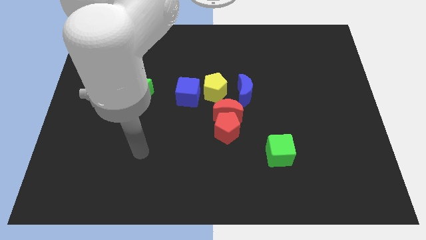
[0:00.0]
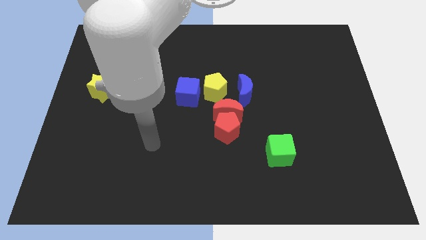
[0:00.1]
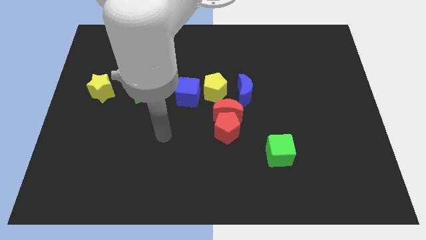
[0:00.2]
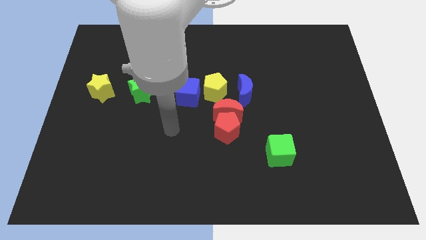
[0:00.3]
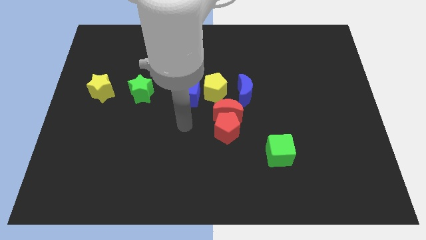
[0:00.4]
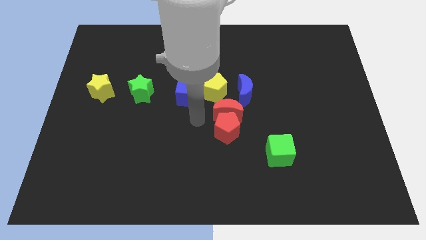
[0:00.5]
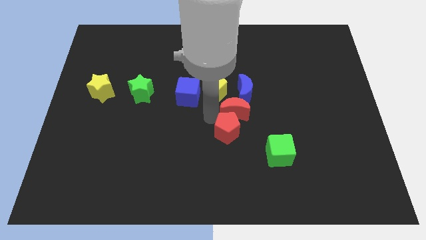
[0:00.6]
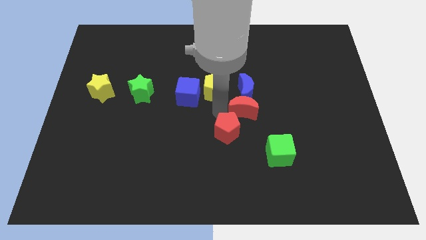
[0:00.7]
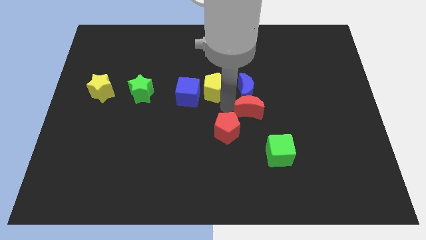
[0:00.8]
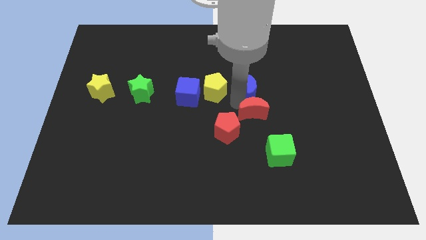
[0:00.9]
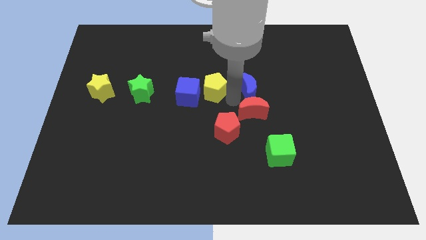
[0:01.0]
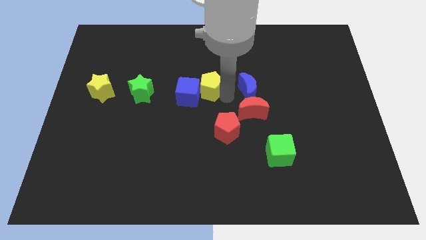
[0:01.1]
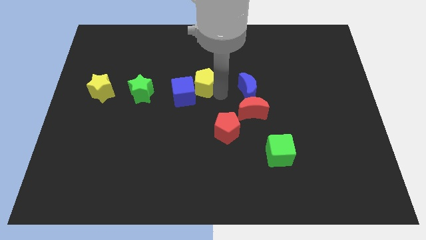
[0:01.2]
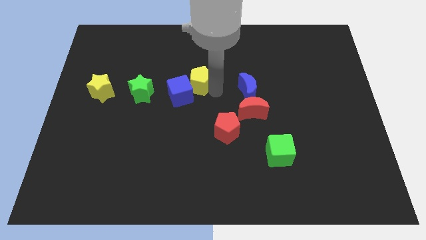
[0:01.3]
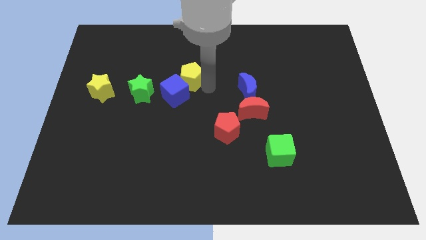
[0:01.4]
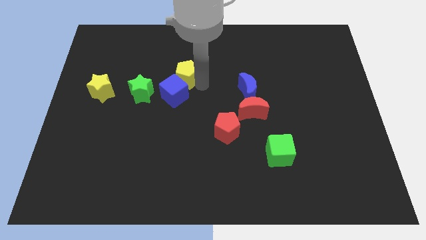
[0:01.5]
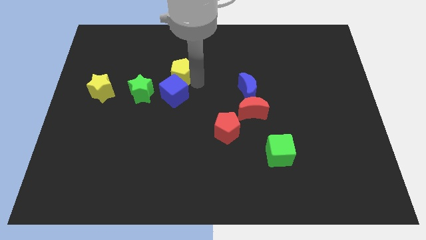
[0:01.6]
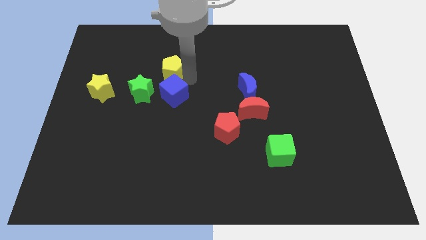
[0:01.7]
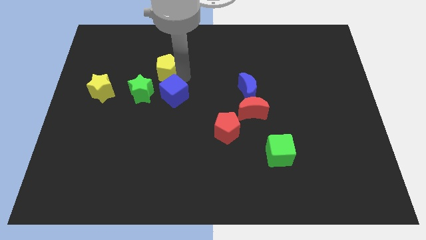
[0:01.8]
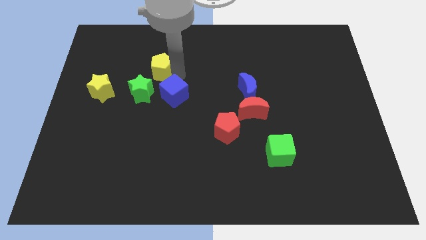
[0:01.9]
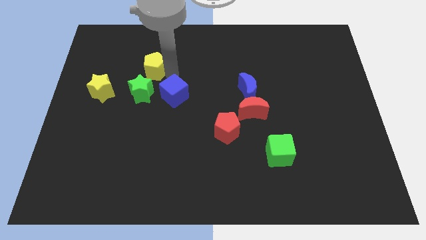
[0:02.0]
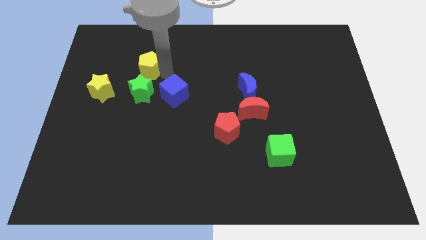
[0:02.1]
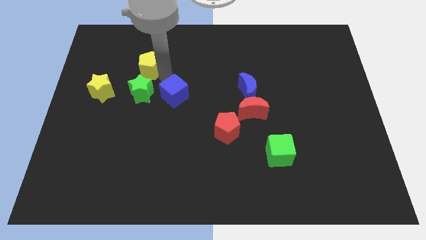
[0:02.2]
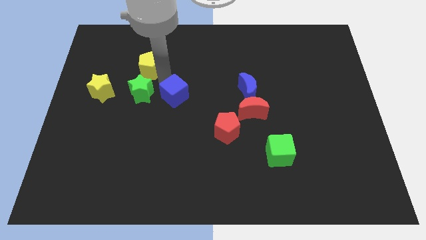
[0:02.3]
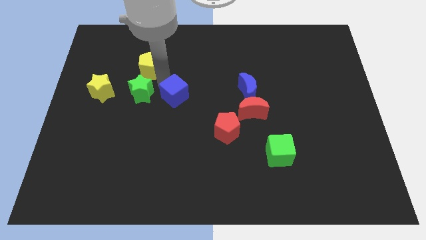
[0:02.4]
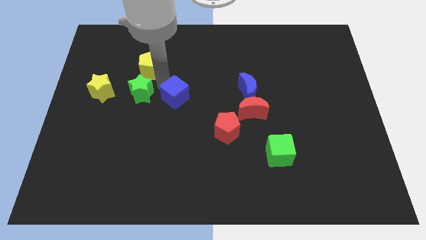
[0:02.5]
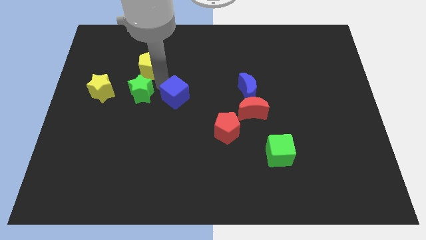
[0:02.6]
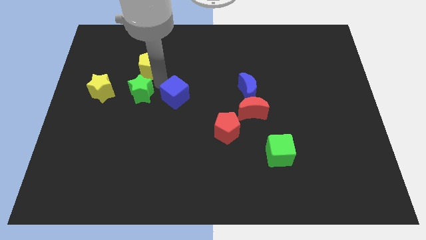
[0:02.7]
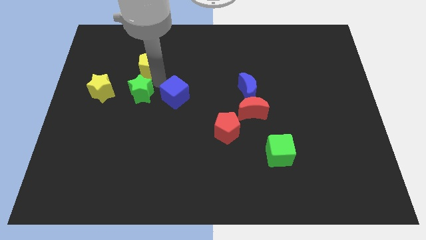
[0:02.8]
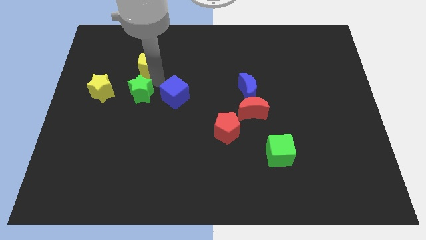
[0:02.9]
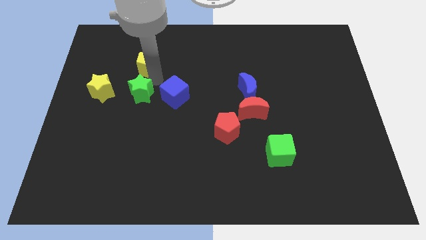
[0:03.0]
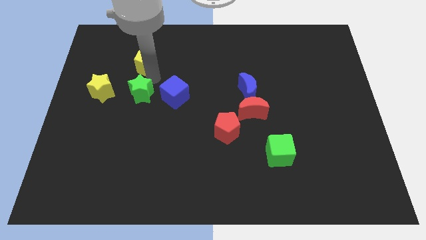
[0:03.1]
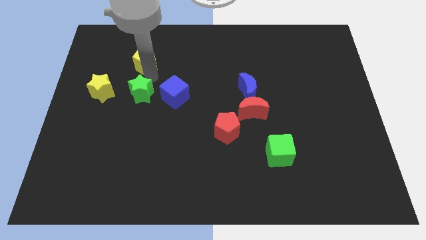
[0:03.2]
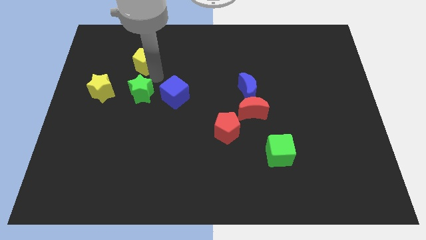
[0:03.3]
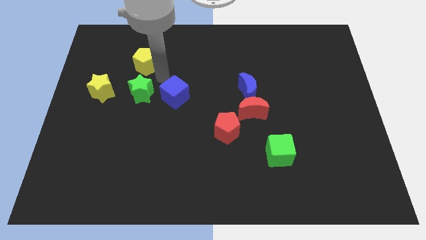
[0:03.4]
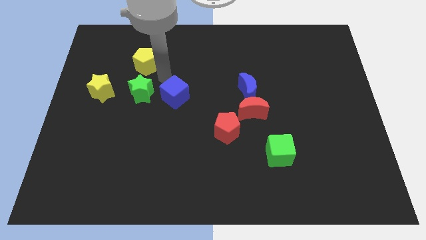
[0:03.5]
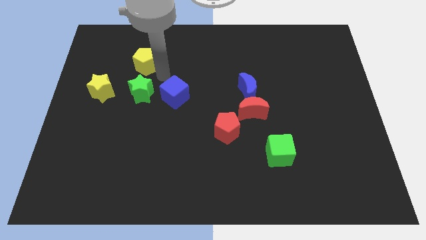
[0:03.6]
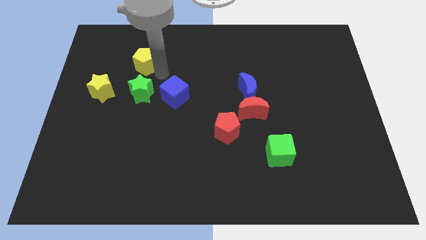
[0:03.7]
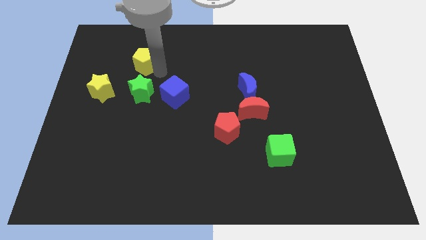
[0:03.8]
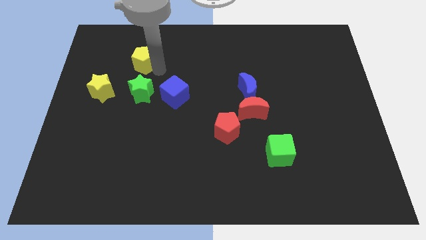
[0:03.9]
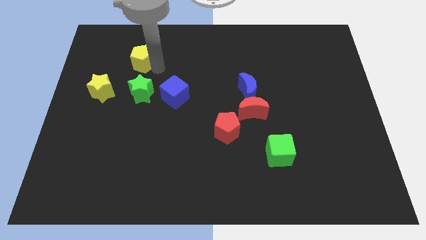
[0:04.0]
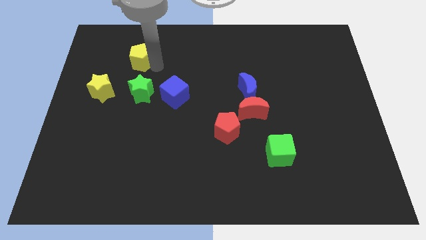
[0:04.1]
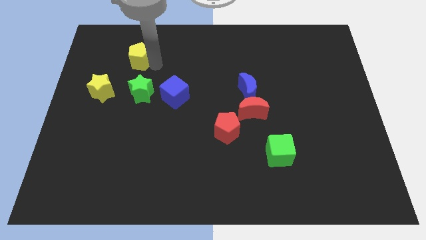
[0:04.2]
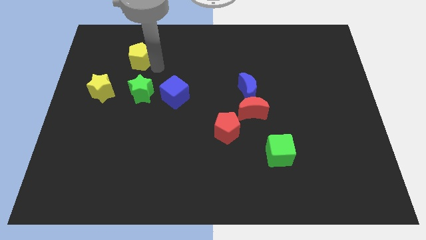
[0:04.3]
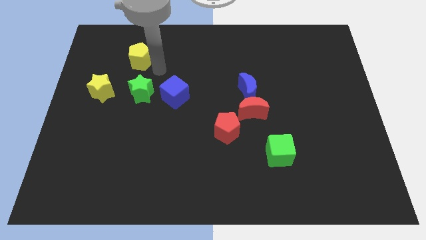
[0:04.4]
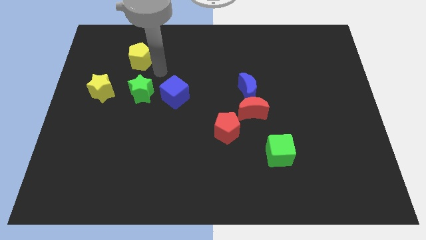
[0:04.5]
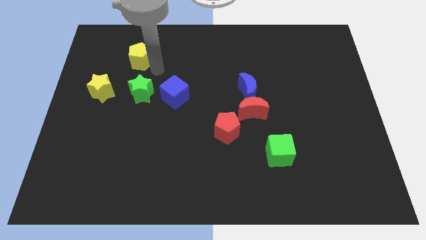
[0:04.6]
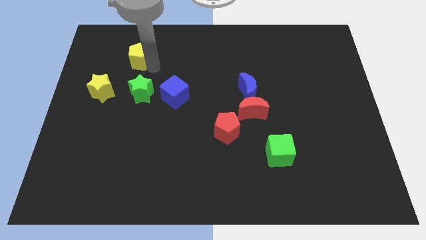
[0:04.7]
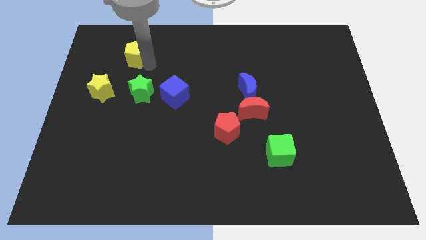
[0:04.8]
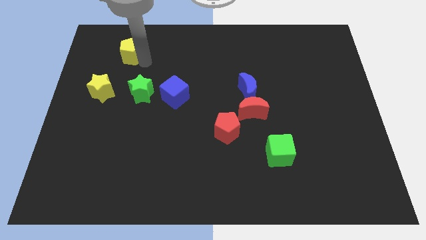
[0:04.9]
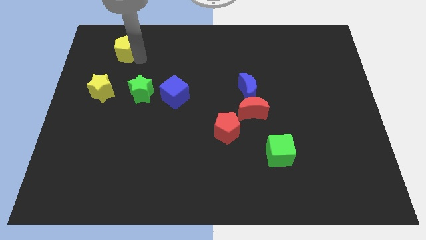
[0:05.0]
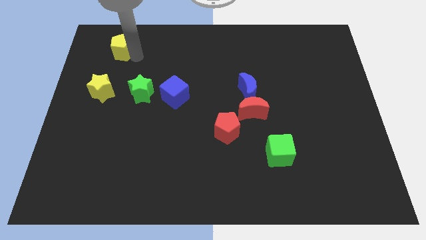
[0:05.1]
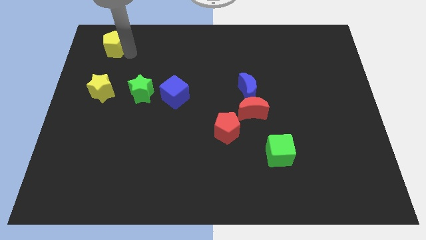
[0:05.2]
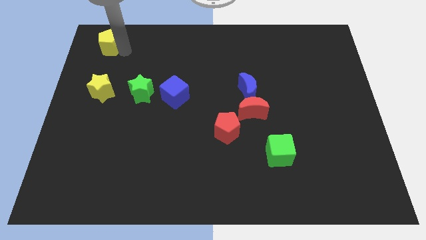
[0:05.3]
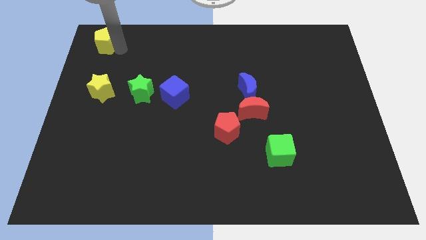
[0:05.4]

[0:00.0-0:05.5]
push the yellow pentagon to the top left corner

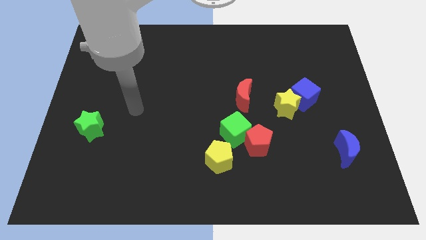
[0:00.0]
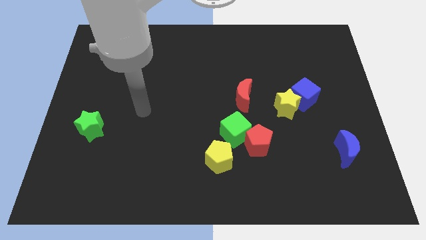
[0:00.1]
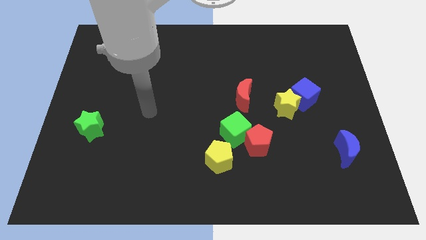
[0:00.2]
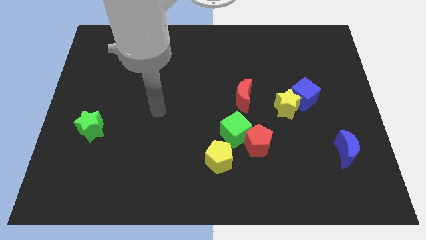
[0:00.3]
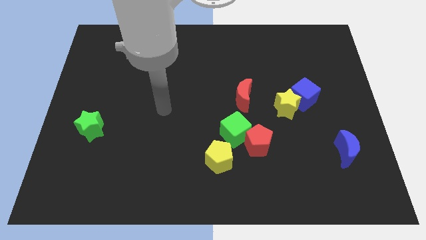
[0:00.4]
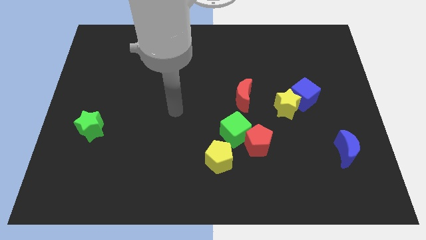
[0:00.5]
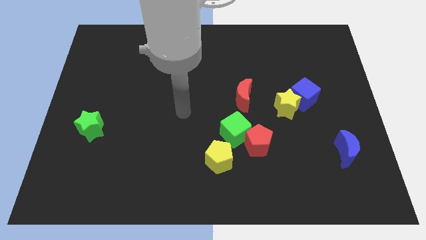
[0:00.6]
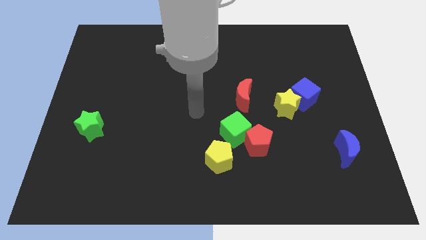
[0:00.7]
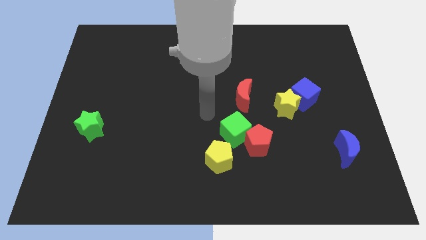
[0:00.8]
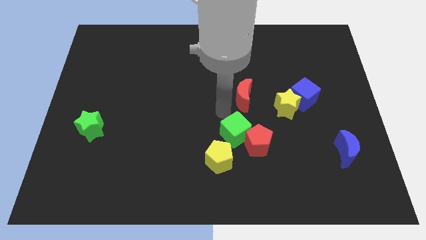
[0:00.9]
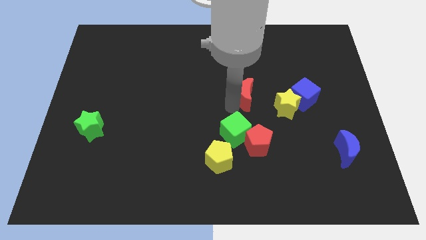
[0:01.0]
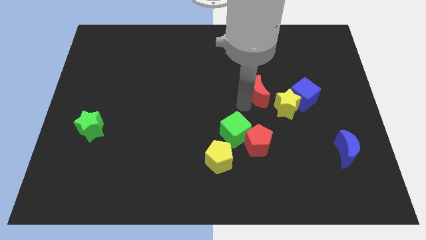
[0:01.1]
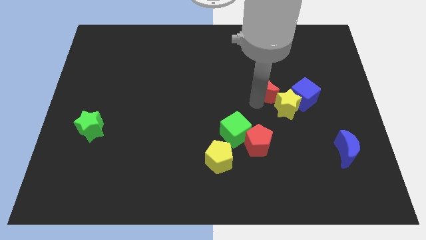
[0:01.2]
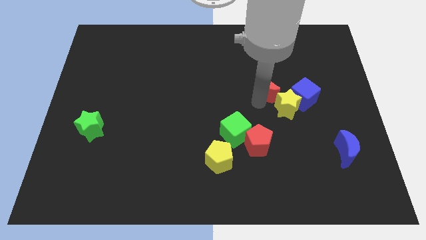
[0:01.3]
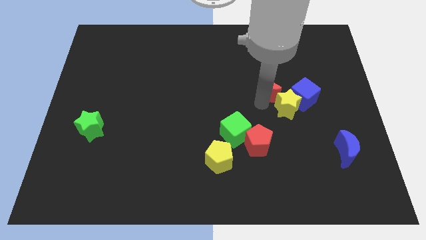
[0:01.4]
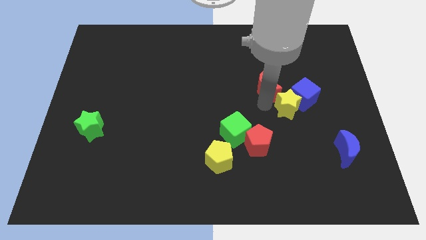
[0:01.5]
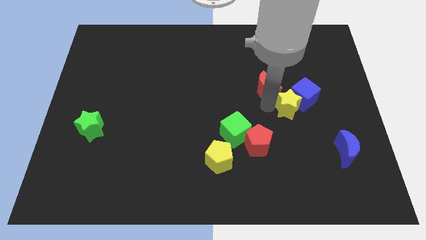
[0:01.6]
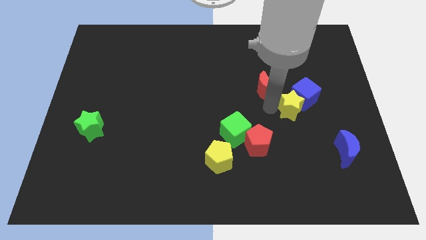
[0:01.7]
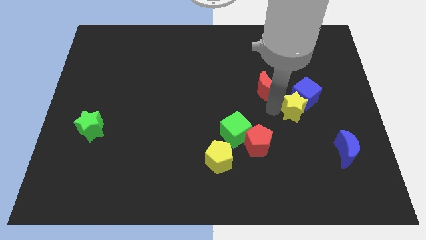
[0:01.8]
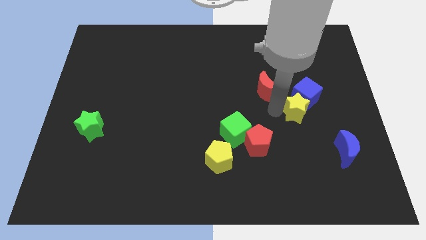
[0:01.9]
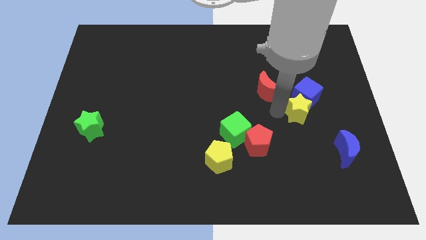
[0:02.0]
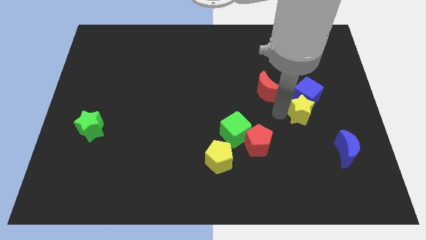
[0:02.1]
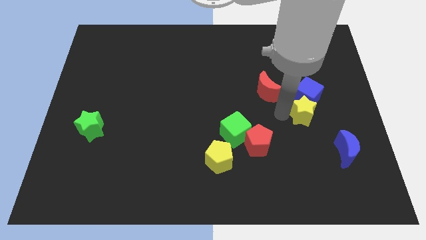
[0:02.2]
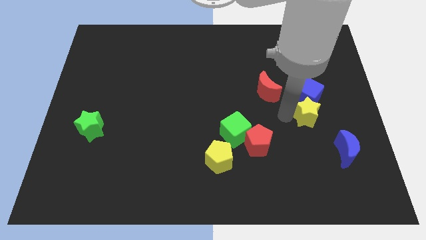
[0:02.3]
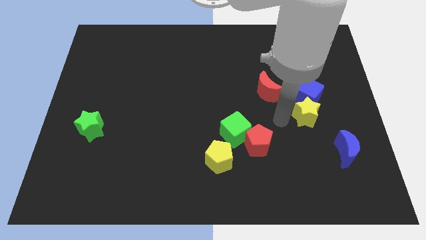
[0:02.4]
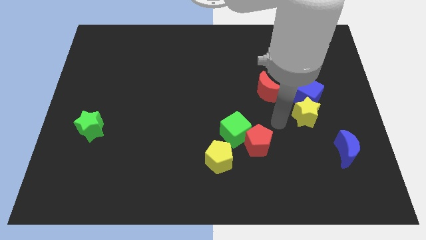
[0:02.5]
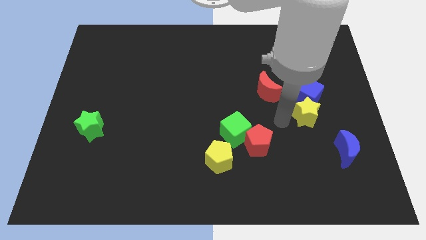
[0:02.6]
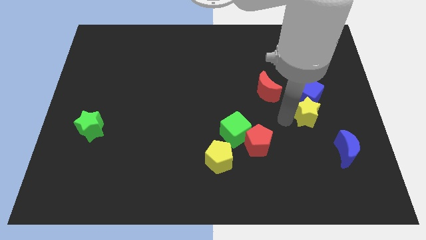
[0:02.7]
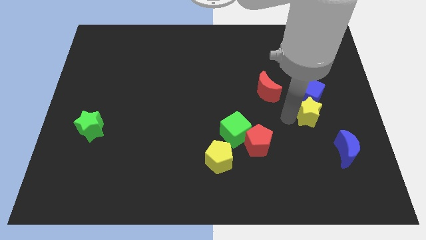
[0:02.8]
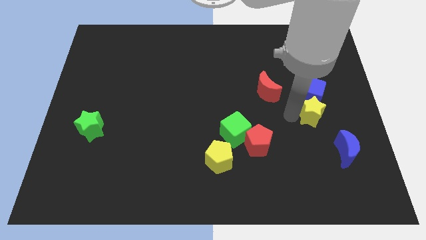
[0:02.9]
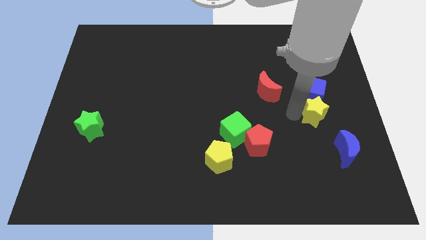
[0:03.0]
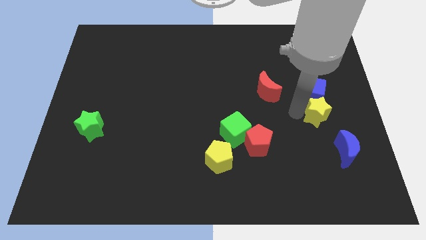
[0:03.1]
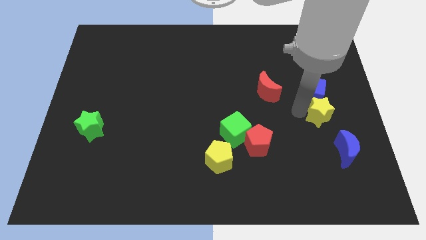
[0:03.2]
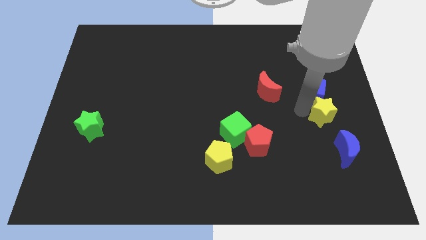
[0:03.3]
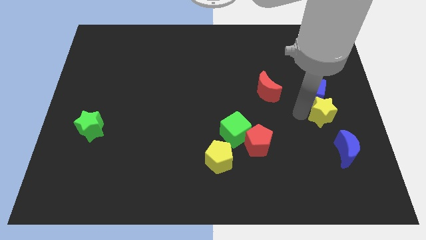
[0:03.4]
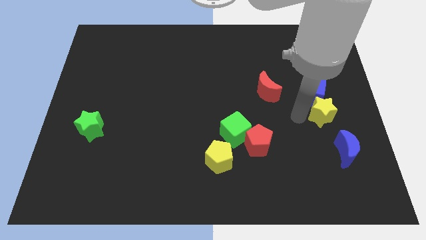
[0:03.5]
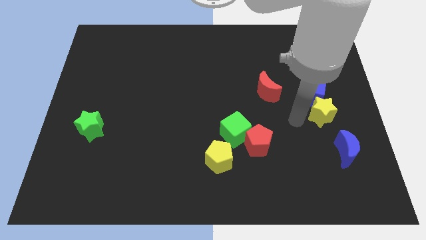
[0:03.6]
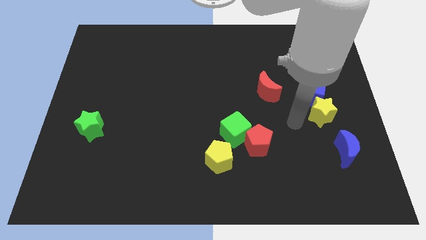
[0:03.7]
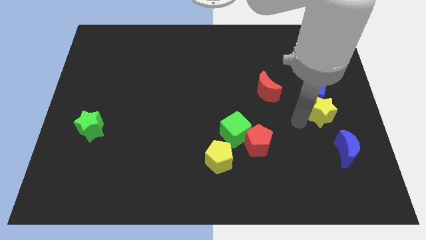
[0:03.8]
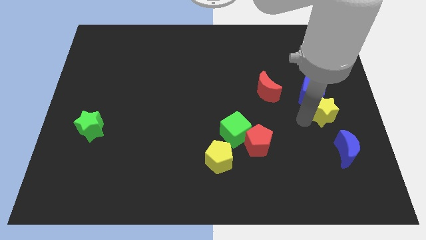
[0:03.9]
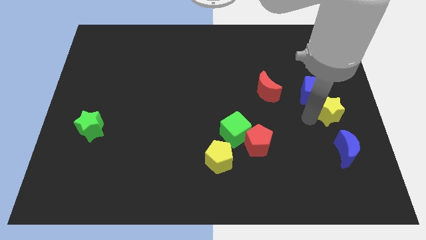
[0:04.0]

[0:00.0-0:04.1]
move the yellow star to the right side of the board
